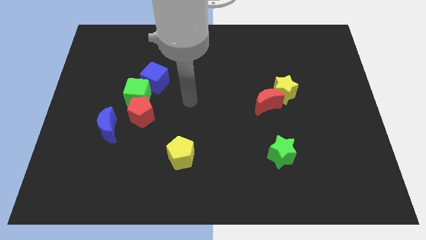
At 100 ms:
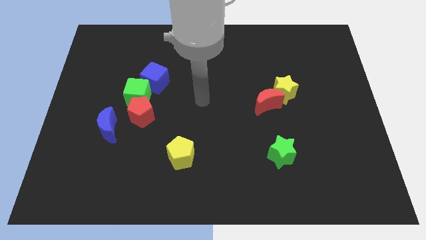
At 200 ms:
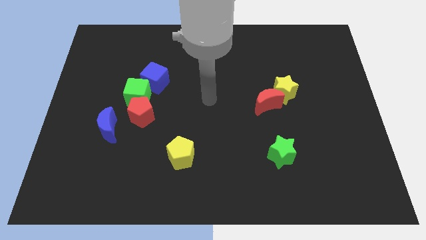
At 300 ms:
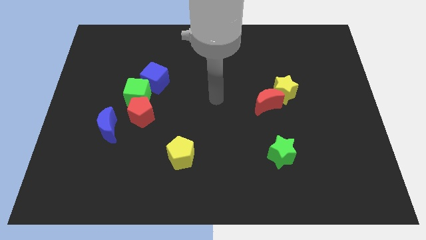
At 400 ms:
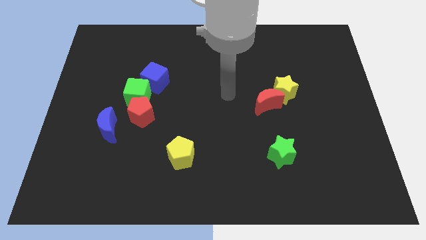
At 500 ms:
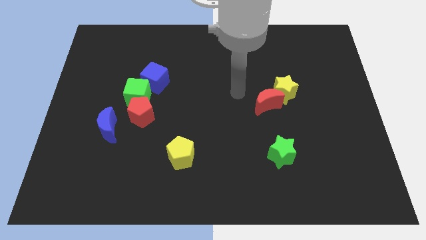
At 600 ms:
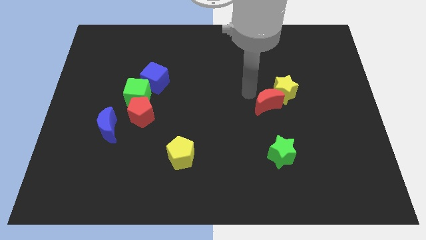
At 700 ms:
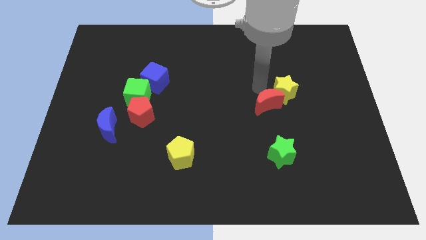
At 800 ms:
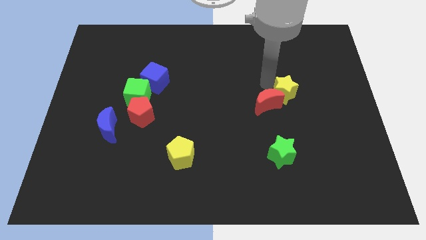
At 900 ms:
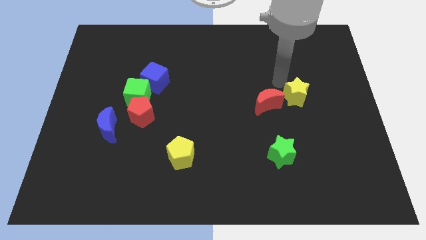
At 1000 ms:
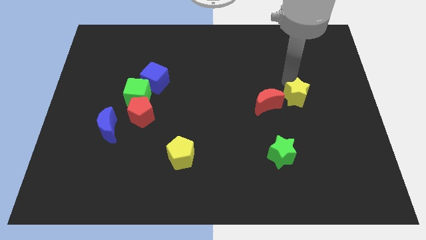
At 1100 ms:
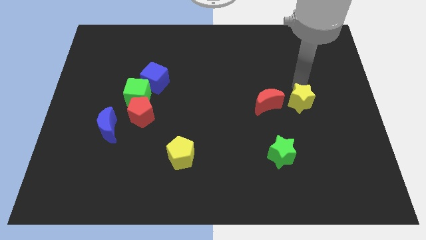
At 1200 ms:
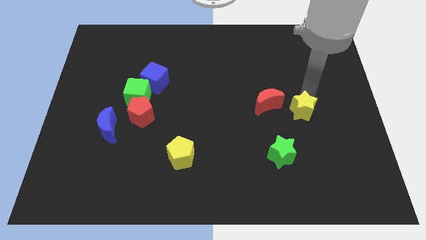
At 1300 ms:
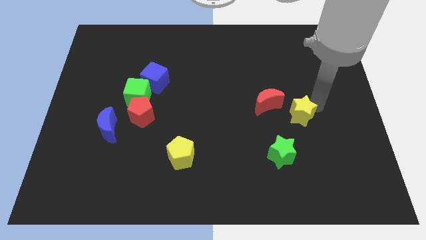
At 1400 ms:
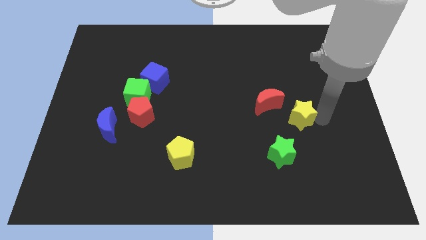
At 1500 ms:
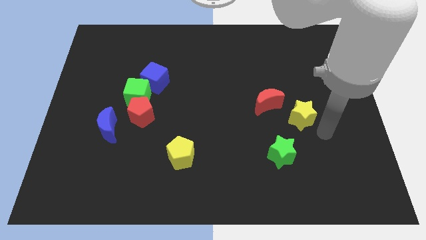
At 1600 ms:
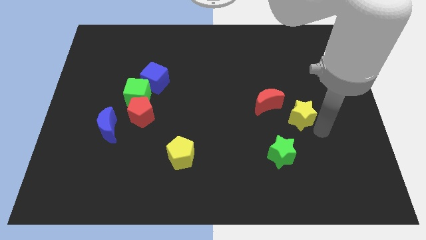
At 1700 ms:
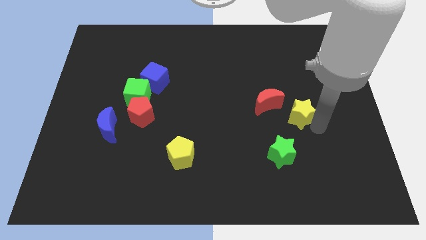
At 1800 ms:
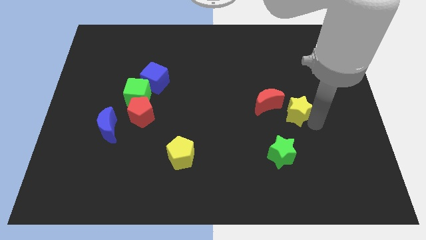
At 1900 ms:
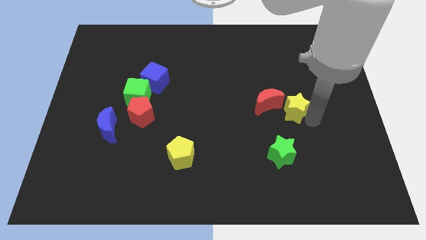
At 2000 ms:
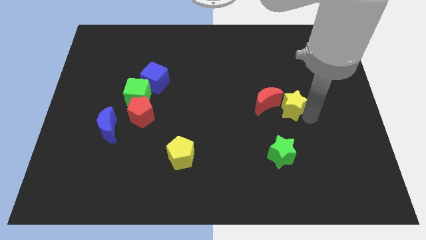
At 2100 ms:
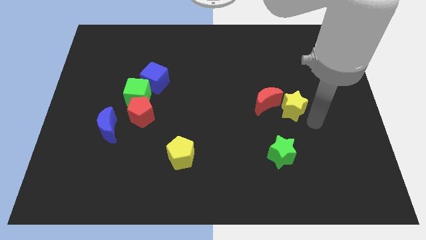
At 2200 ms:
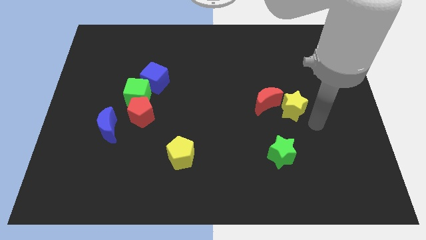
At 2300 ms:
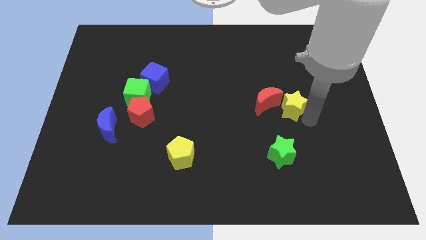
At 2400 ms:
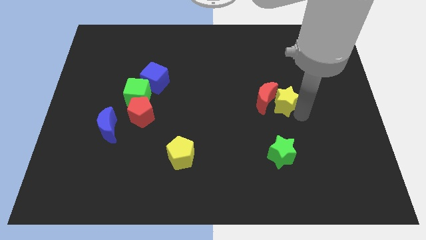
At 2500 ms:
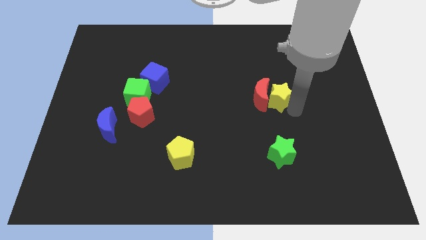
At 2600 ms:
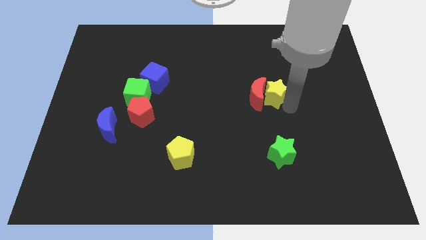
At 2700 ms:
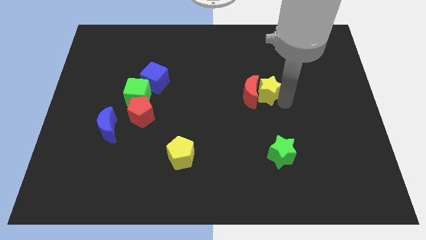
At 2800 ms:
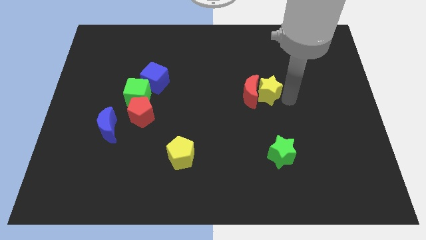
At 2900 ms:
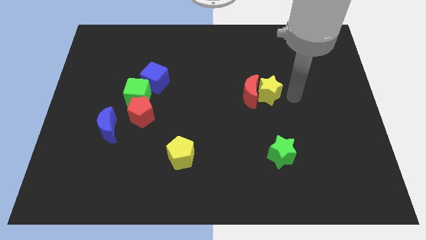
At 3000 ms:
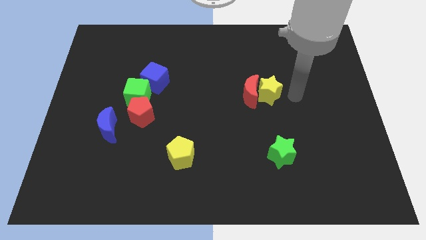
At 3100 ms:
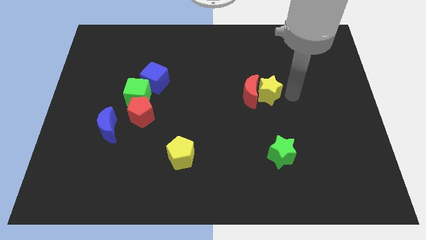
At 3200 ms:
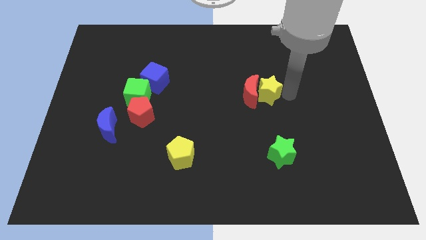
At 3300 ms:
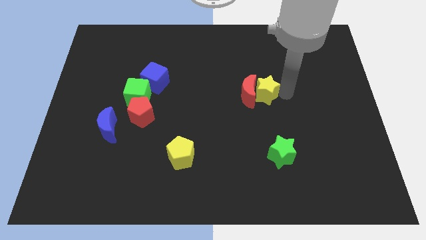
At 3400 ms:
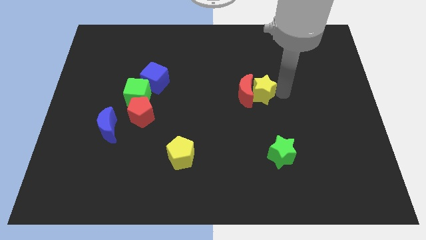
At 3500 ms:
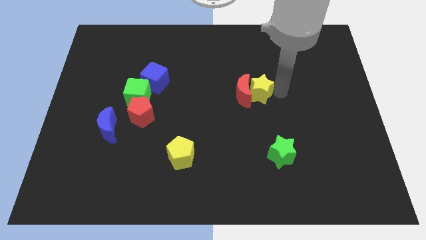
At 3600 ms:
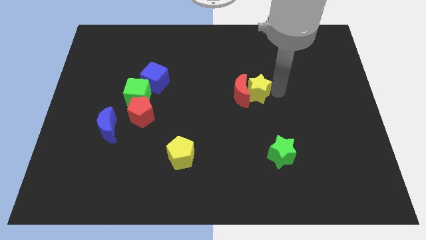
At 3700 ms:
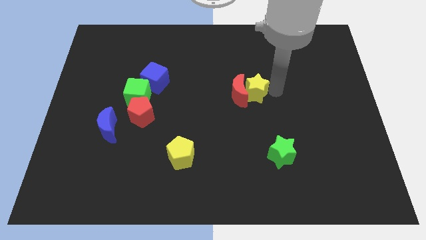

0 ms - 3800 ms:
move the yellow star to the left a little

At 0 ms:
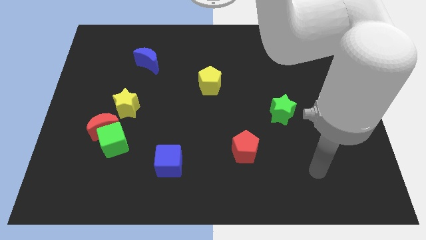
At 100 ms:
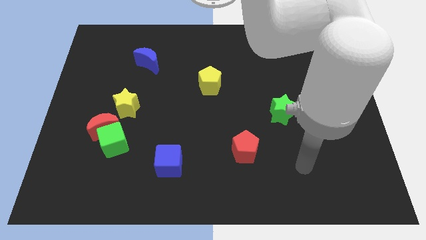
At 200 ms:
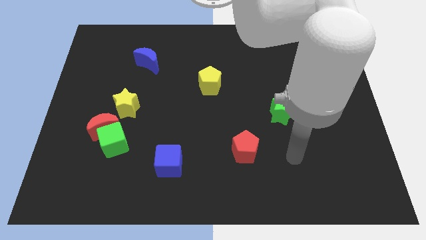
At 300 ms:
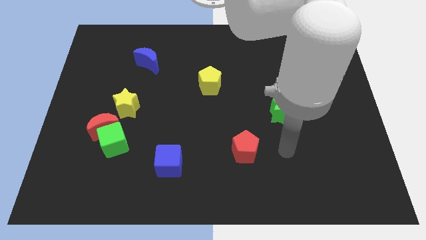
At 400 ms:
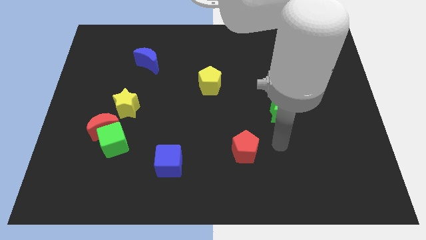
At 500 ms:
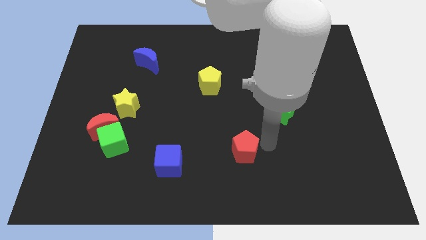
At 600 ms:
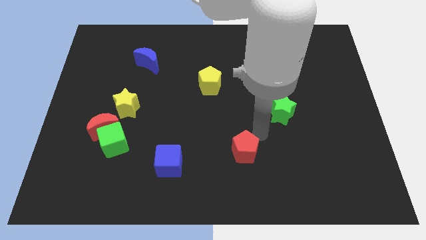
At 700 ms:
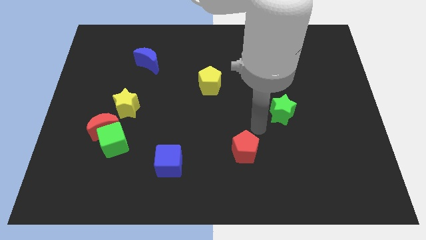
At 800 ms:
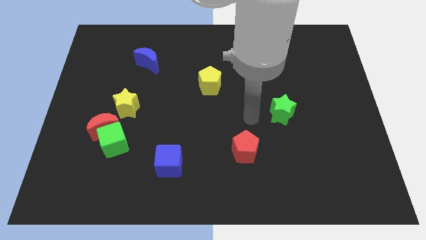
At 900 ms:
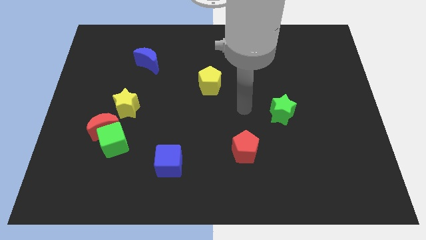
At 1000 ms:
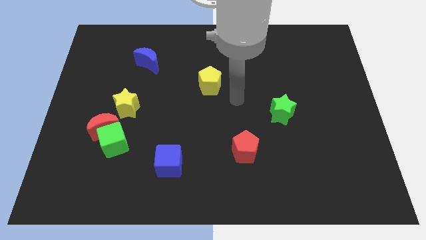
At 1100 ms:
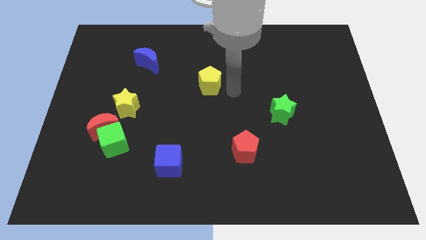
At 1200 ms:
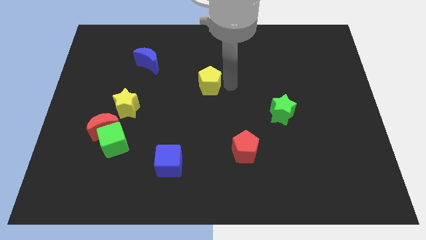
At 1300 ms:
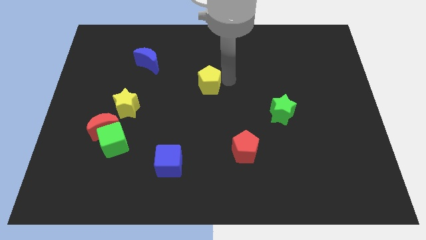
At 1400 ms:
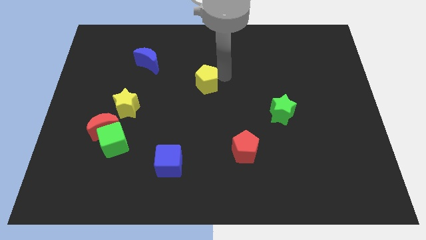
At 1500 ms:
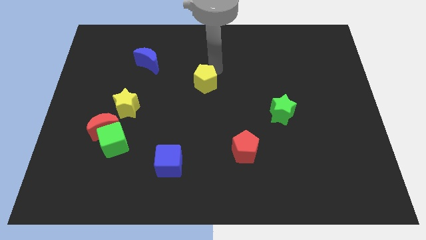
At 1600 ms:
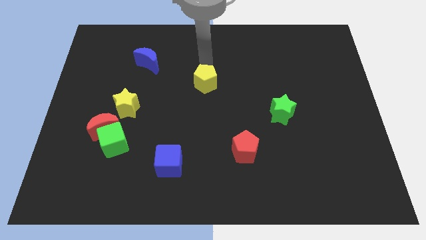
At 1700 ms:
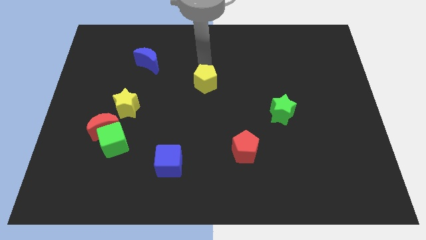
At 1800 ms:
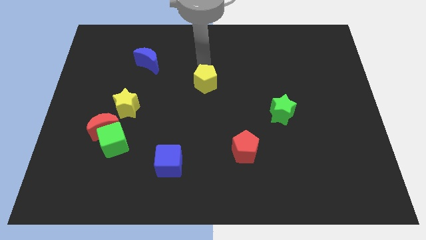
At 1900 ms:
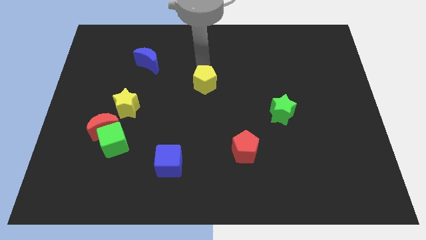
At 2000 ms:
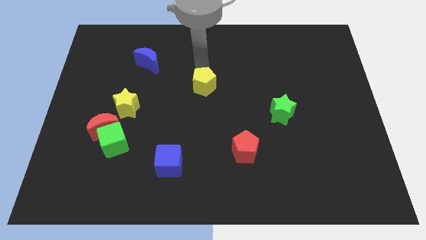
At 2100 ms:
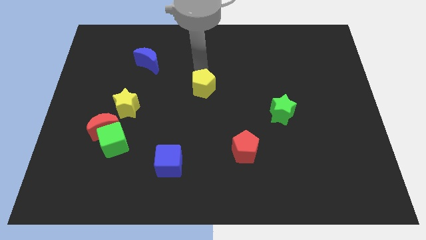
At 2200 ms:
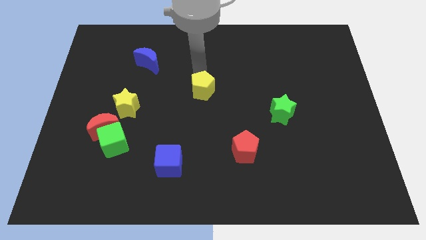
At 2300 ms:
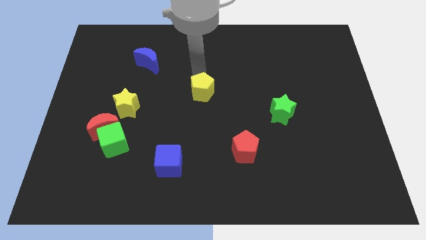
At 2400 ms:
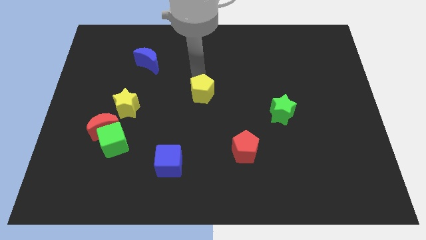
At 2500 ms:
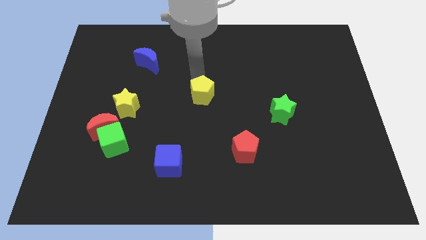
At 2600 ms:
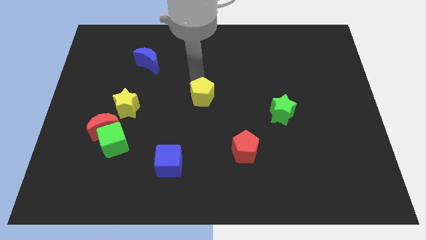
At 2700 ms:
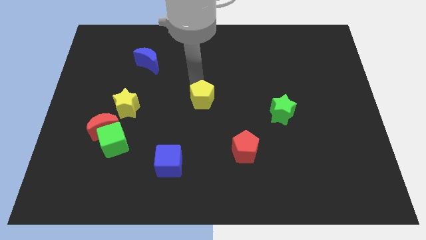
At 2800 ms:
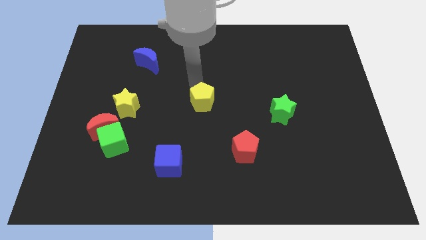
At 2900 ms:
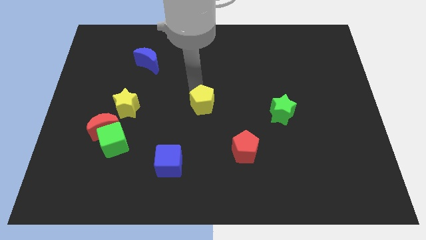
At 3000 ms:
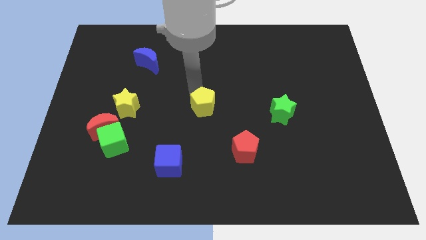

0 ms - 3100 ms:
slide the yellow pentagon down somewhat

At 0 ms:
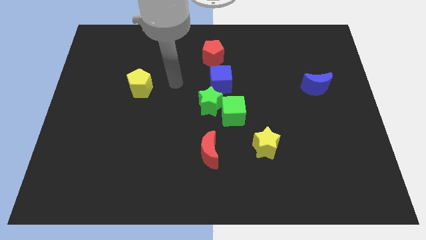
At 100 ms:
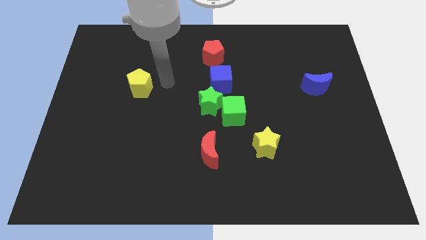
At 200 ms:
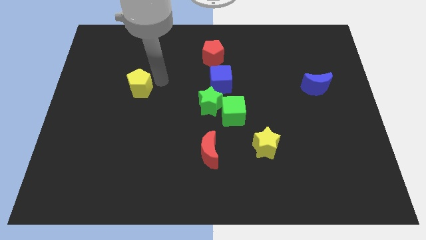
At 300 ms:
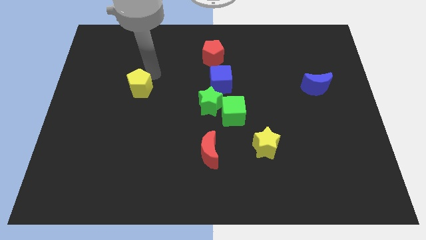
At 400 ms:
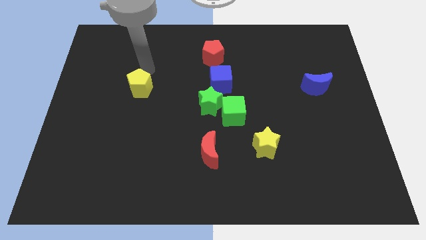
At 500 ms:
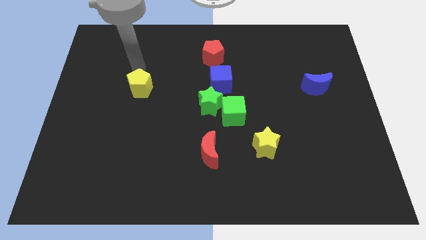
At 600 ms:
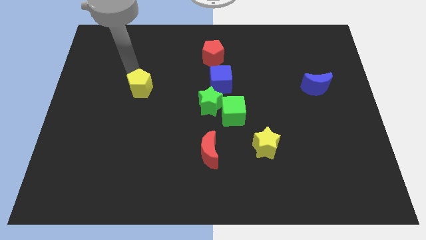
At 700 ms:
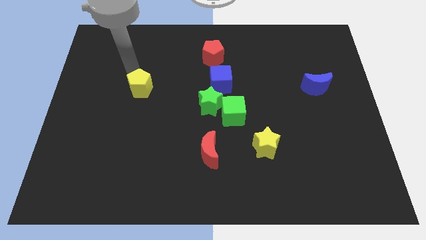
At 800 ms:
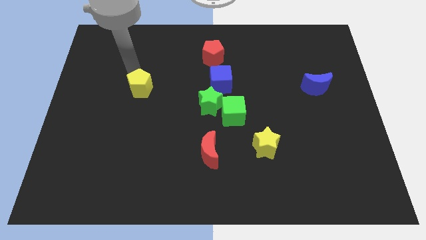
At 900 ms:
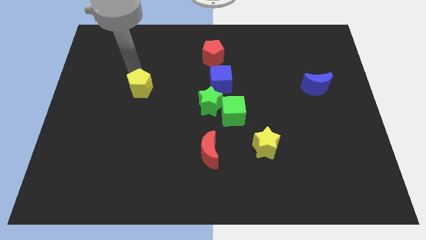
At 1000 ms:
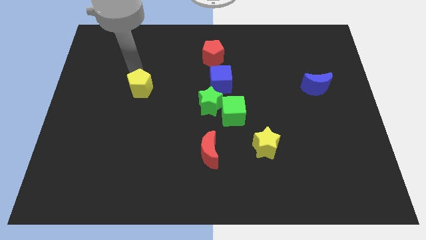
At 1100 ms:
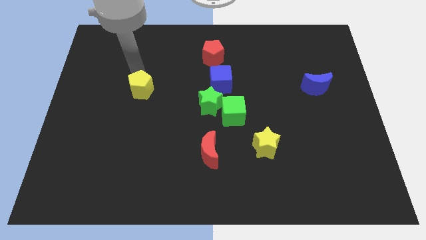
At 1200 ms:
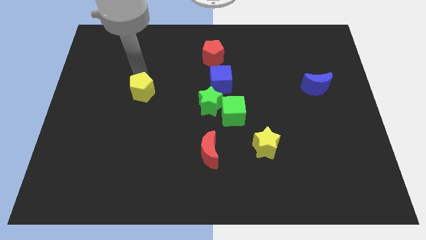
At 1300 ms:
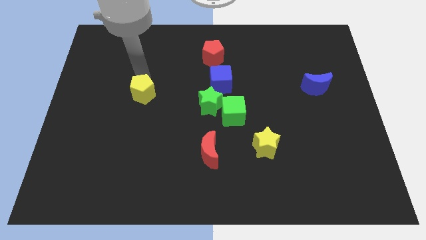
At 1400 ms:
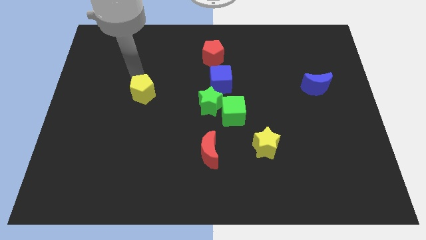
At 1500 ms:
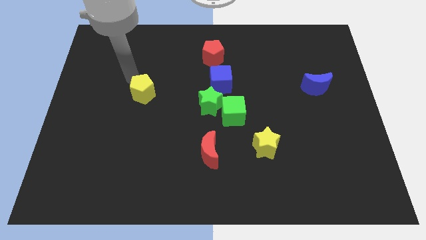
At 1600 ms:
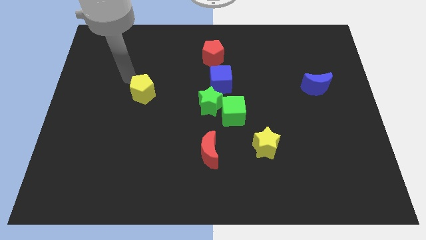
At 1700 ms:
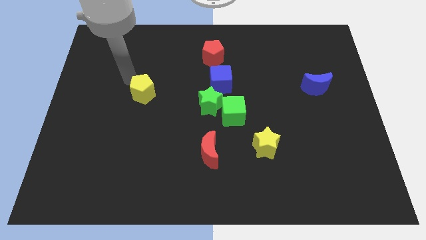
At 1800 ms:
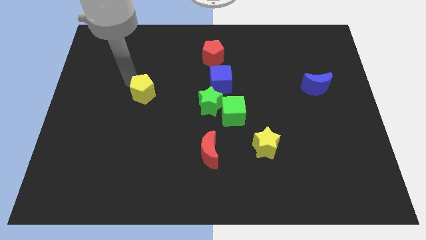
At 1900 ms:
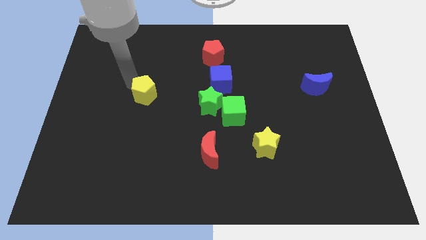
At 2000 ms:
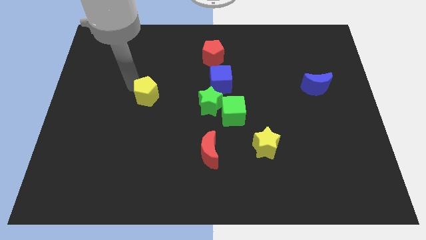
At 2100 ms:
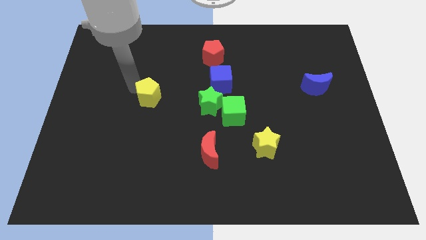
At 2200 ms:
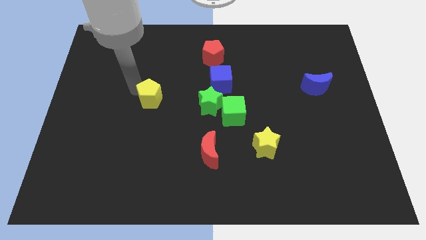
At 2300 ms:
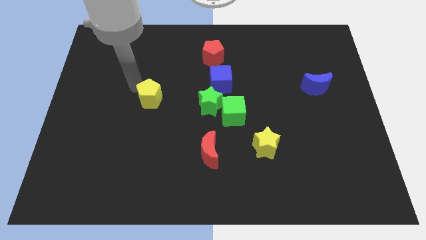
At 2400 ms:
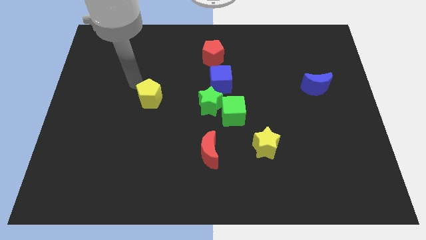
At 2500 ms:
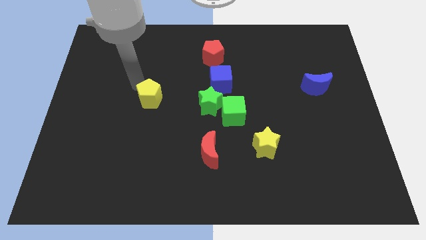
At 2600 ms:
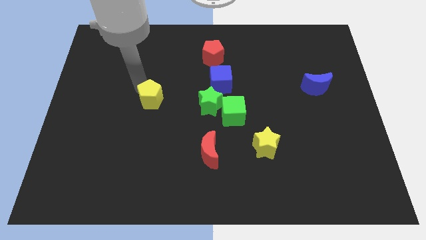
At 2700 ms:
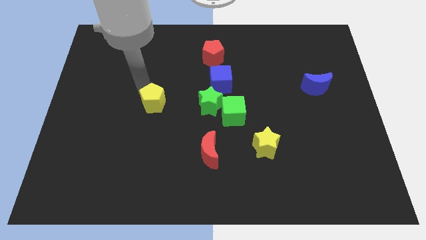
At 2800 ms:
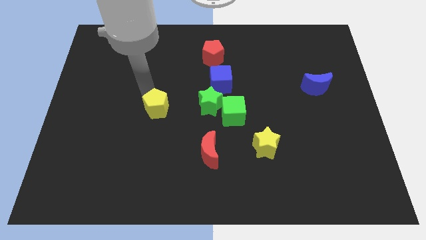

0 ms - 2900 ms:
push the yellow pentagon a little downwards and to the right
